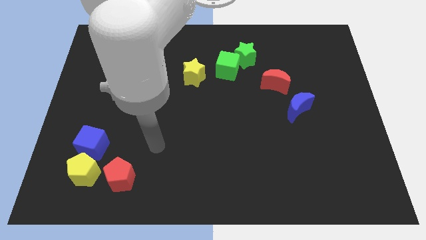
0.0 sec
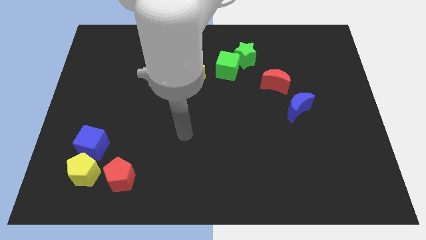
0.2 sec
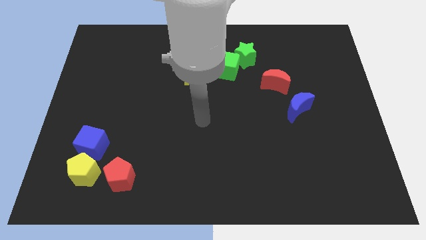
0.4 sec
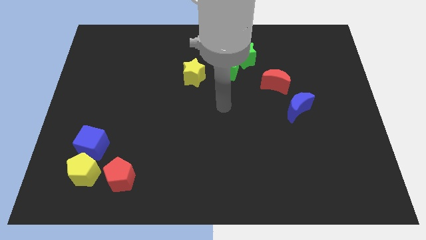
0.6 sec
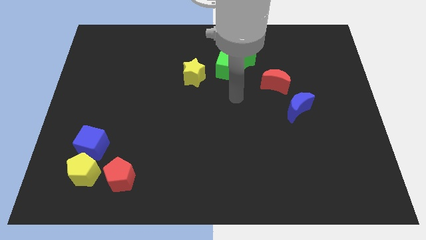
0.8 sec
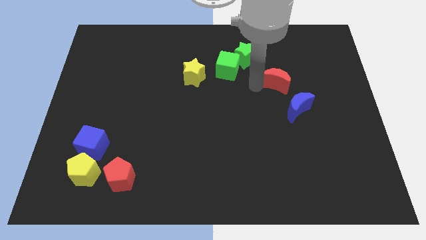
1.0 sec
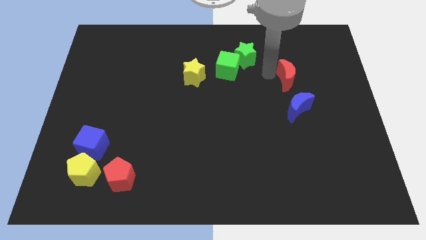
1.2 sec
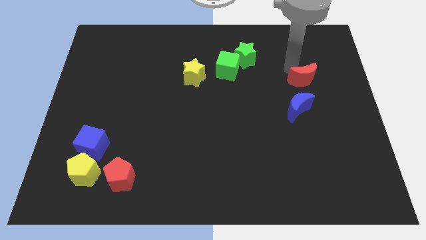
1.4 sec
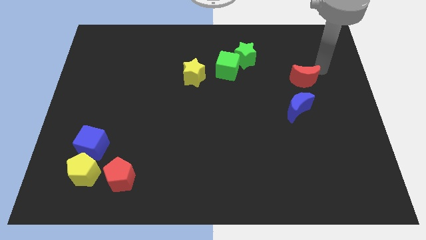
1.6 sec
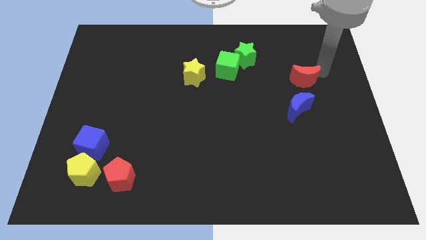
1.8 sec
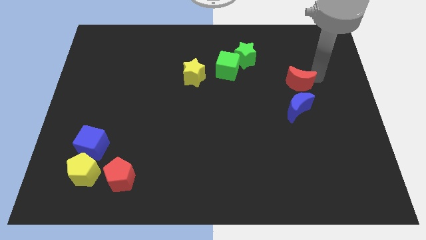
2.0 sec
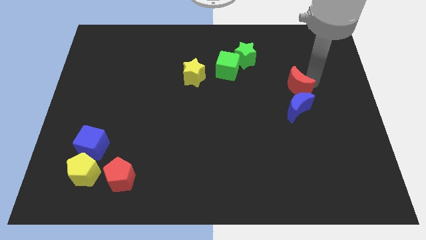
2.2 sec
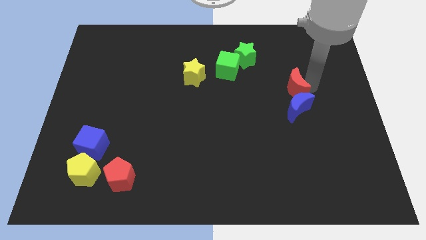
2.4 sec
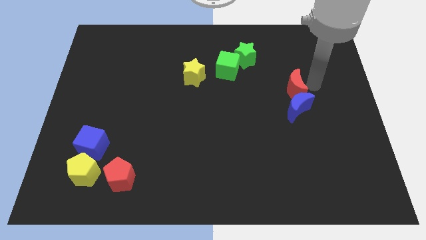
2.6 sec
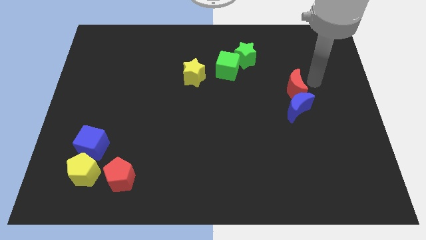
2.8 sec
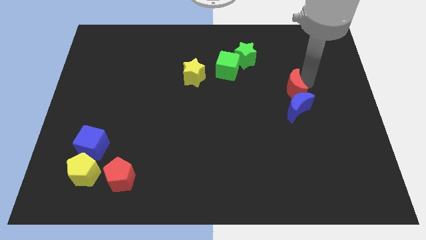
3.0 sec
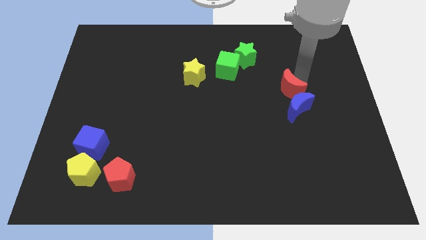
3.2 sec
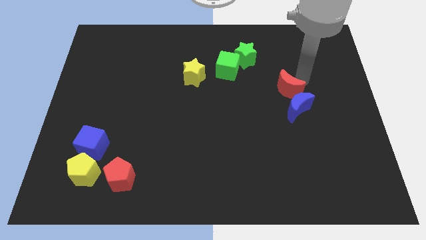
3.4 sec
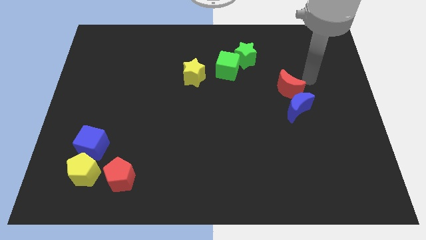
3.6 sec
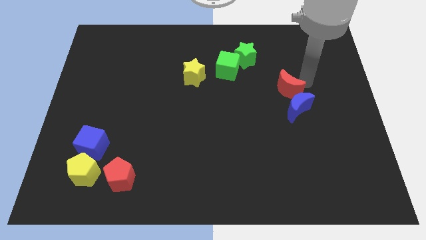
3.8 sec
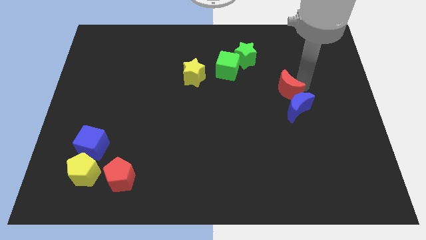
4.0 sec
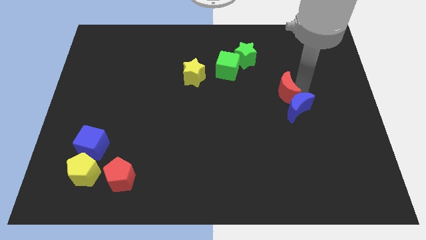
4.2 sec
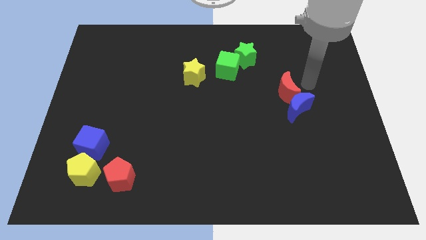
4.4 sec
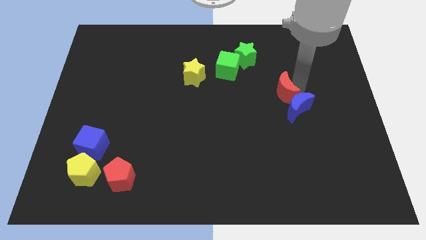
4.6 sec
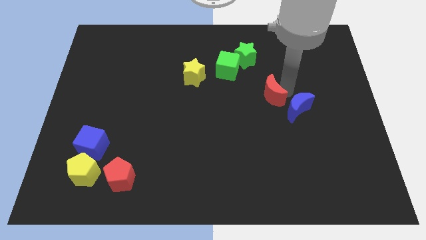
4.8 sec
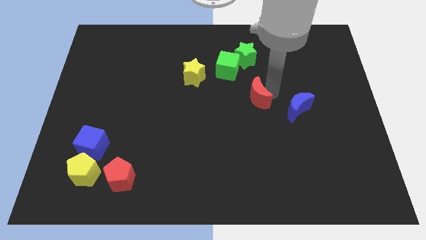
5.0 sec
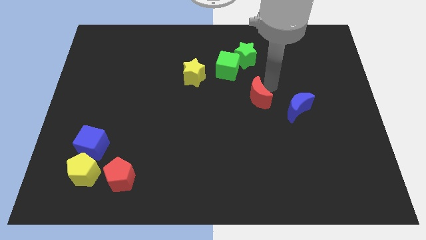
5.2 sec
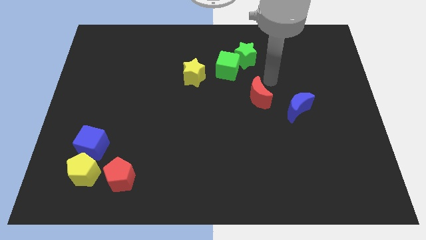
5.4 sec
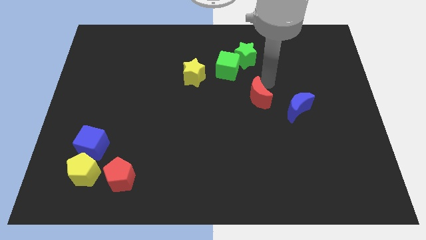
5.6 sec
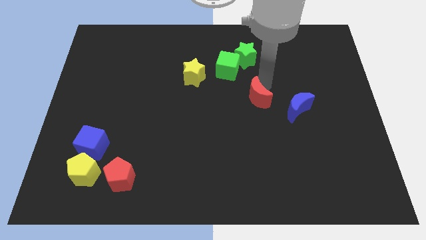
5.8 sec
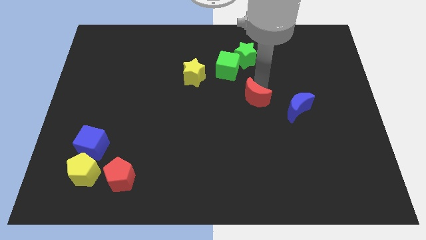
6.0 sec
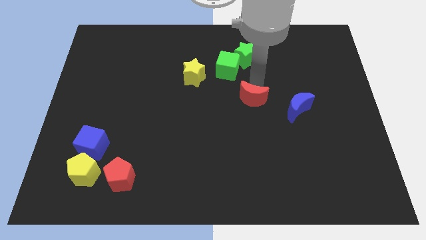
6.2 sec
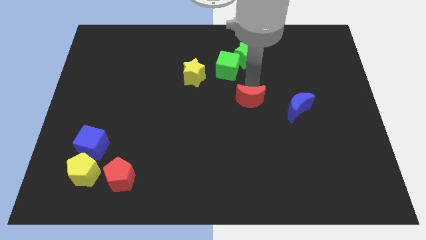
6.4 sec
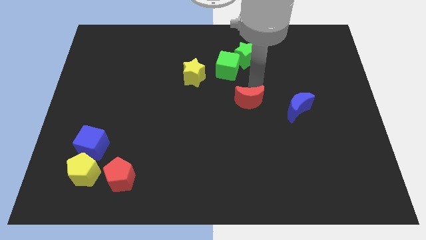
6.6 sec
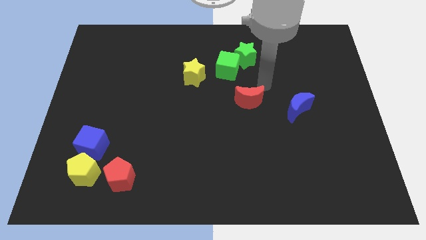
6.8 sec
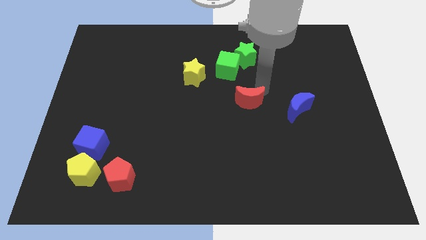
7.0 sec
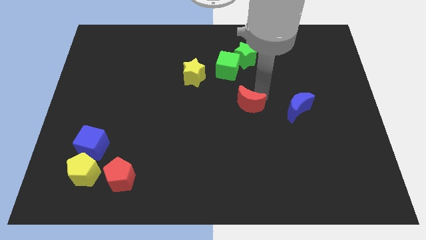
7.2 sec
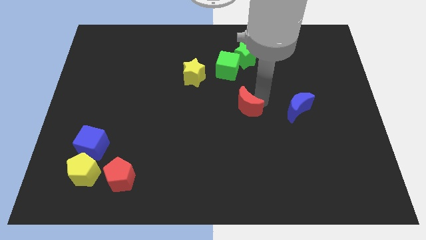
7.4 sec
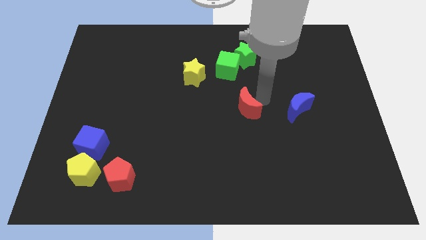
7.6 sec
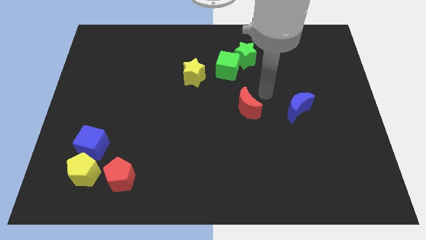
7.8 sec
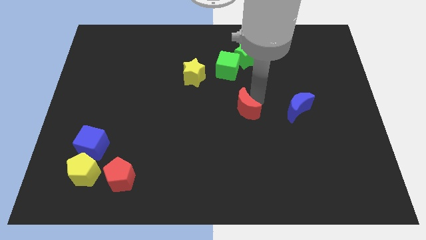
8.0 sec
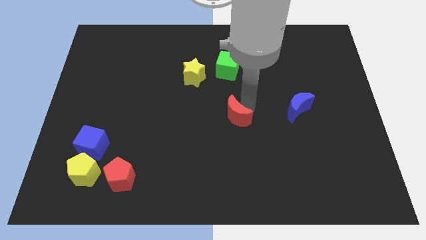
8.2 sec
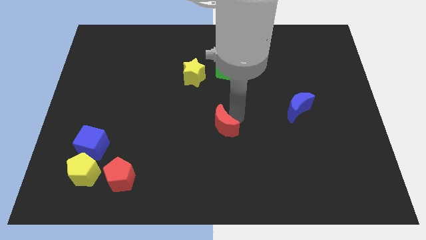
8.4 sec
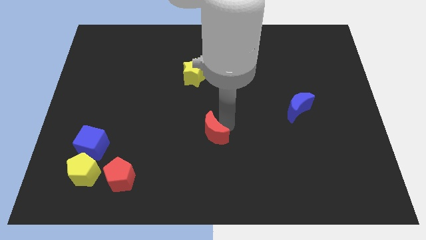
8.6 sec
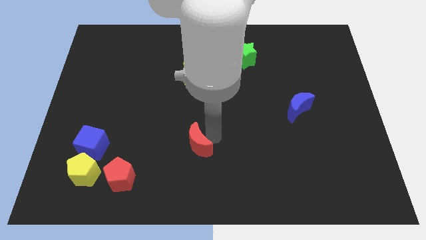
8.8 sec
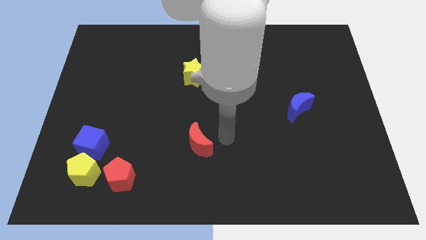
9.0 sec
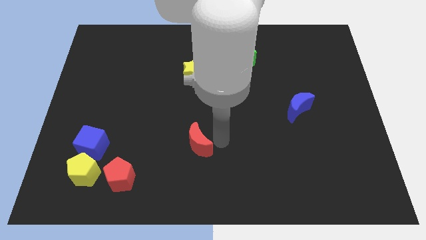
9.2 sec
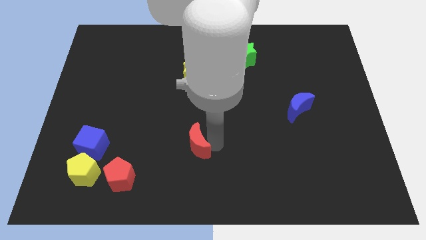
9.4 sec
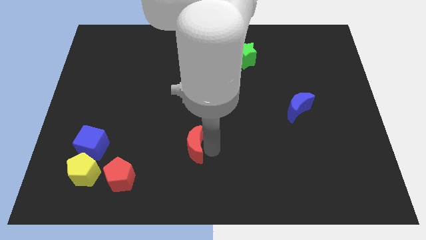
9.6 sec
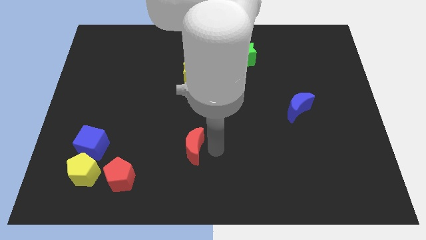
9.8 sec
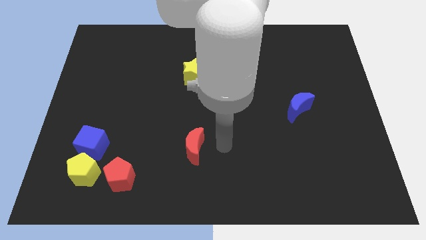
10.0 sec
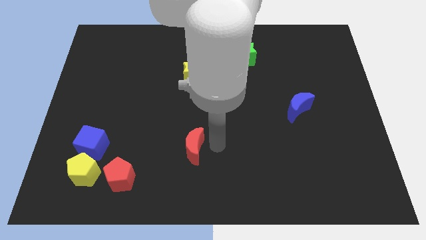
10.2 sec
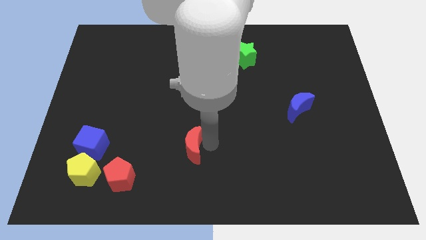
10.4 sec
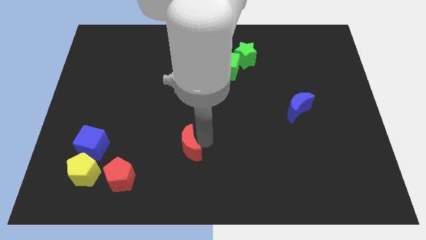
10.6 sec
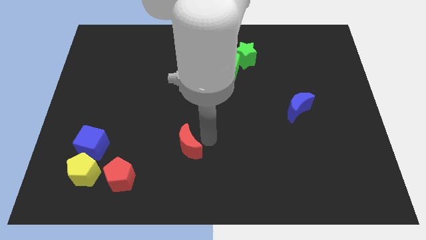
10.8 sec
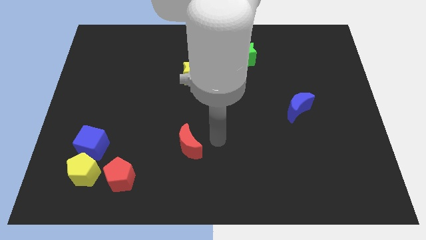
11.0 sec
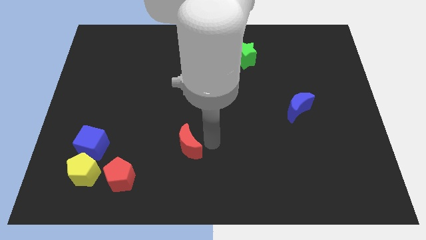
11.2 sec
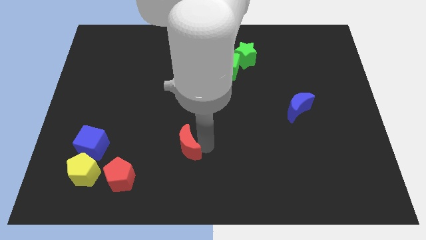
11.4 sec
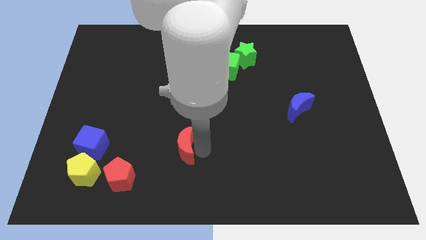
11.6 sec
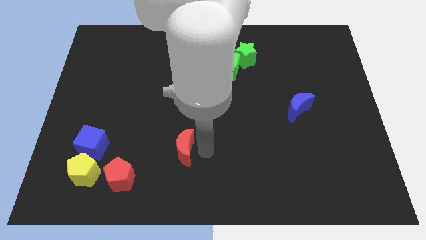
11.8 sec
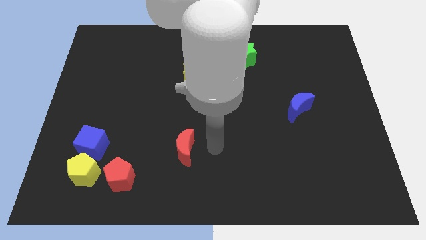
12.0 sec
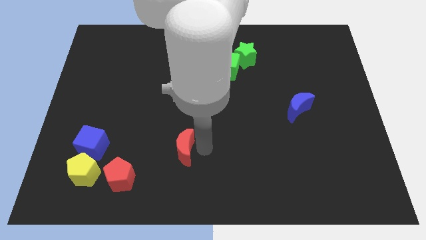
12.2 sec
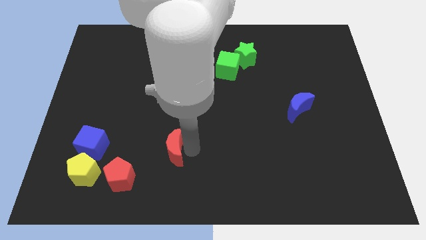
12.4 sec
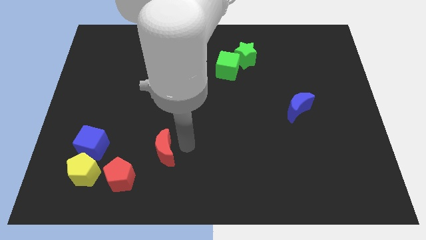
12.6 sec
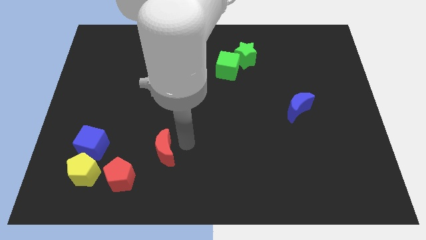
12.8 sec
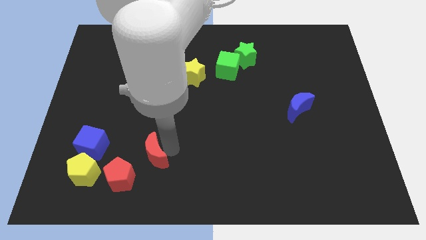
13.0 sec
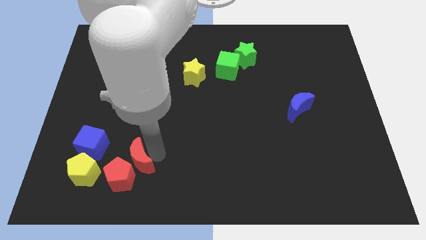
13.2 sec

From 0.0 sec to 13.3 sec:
push the red moon to the red pentagon
